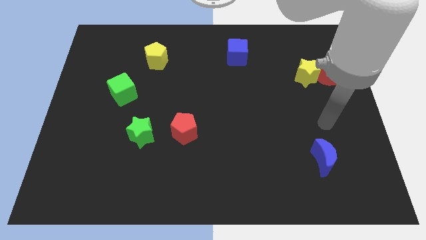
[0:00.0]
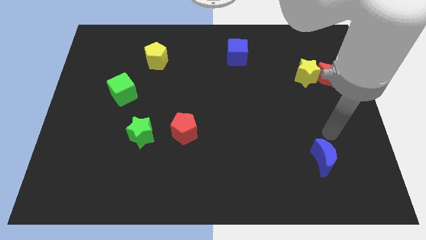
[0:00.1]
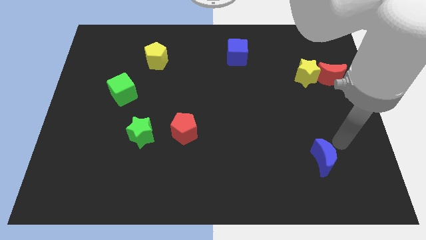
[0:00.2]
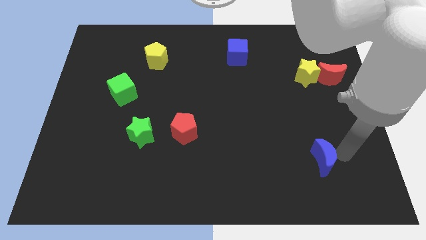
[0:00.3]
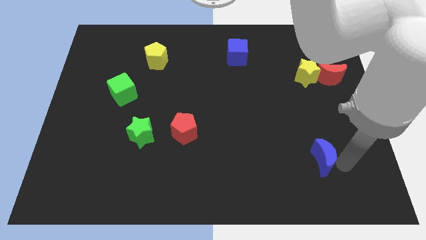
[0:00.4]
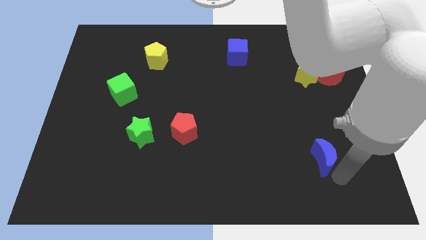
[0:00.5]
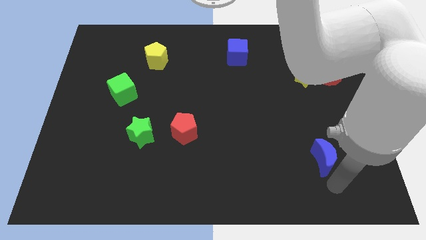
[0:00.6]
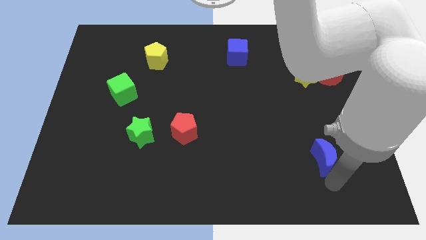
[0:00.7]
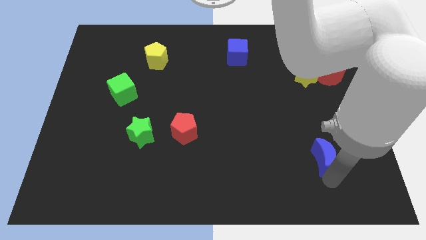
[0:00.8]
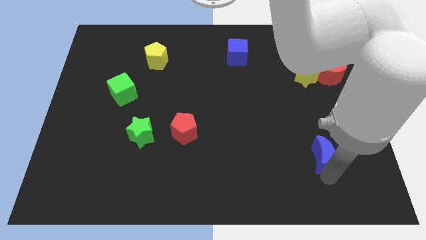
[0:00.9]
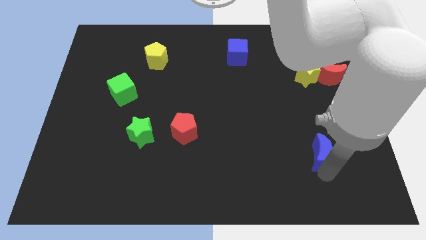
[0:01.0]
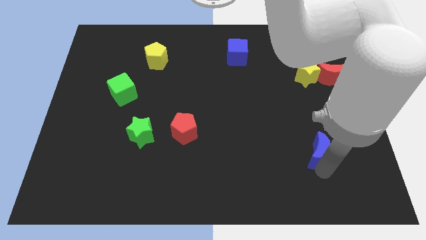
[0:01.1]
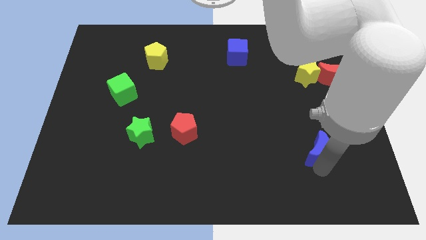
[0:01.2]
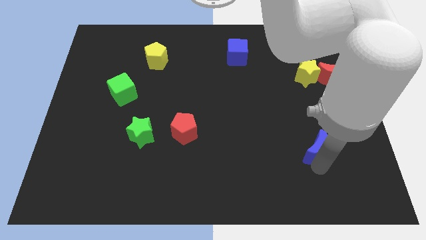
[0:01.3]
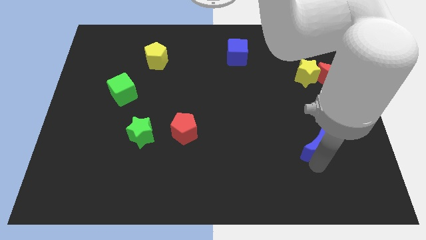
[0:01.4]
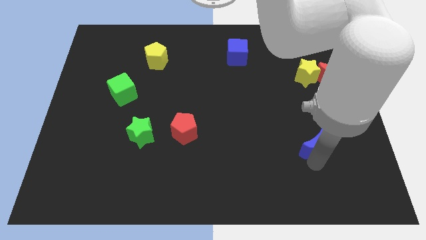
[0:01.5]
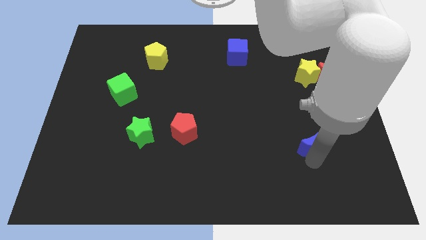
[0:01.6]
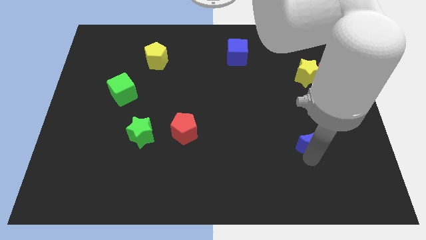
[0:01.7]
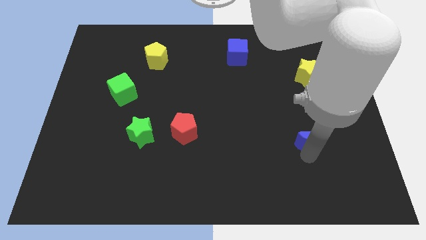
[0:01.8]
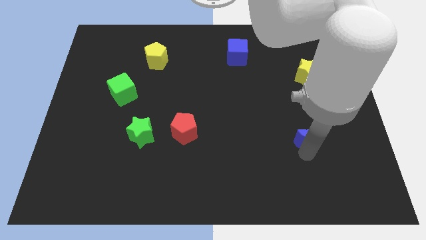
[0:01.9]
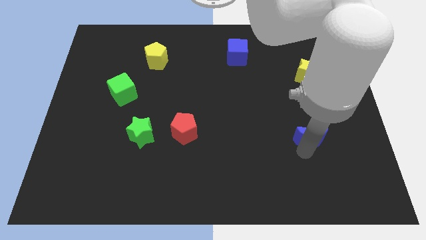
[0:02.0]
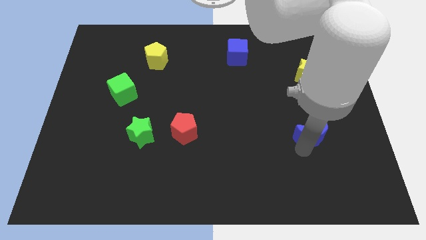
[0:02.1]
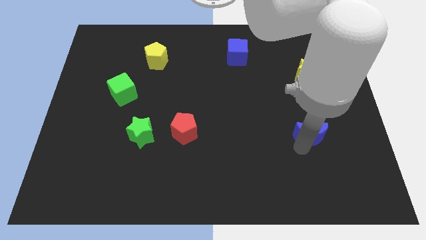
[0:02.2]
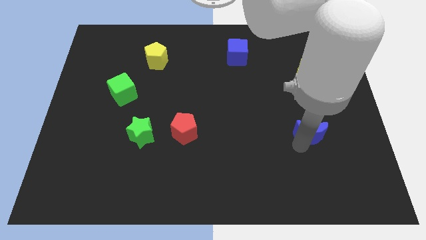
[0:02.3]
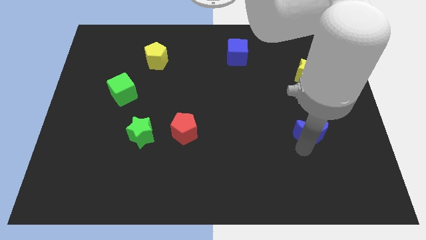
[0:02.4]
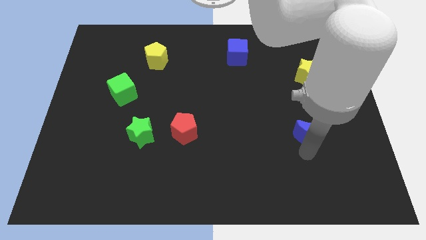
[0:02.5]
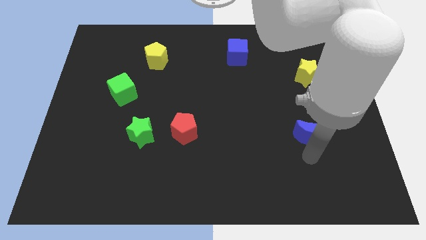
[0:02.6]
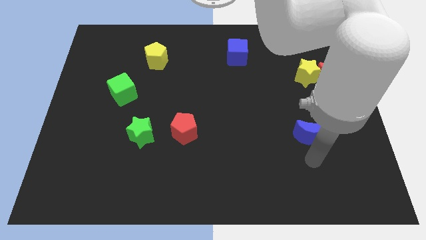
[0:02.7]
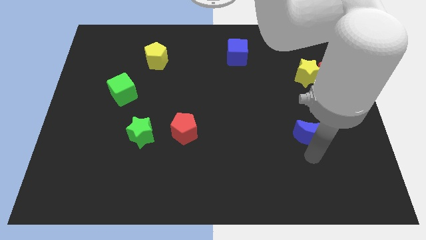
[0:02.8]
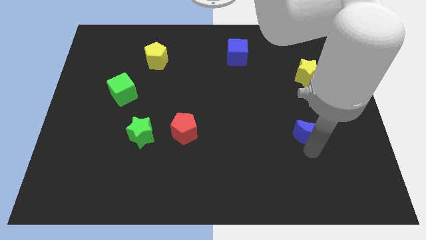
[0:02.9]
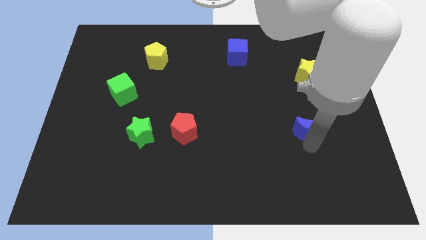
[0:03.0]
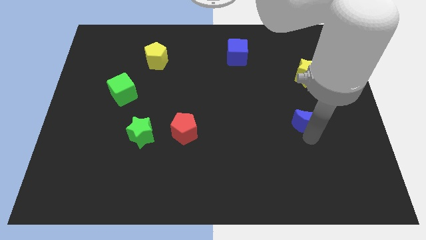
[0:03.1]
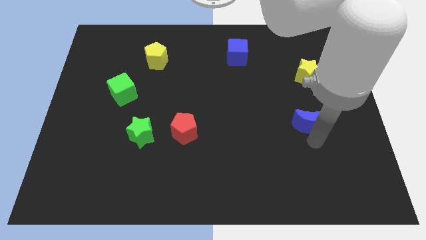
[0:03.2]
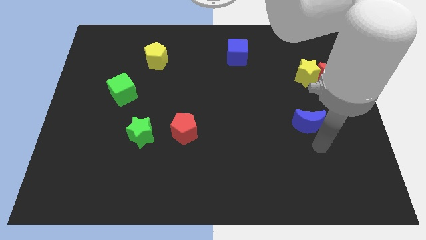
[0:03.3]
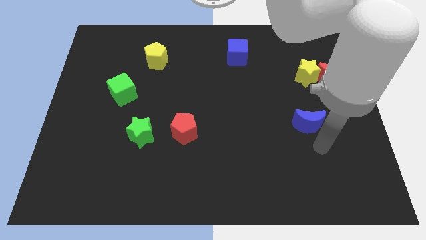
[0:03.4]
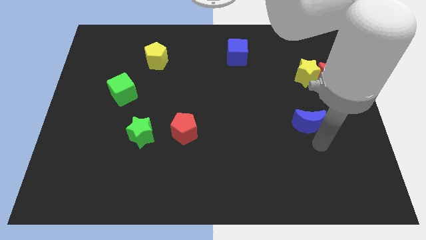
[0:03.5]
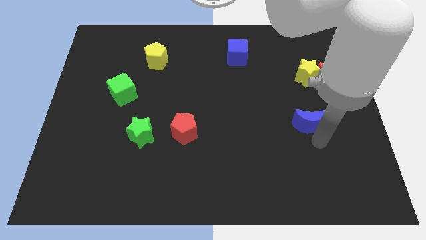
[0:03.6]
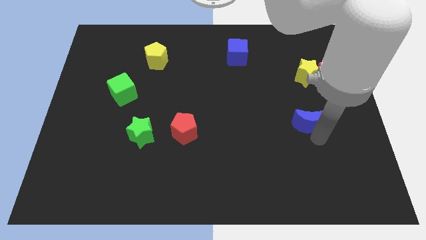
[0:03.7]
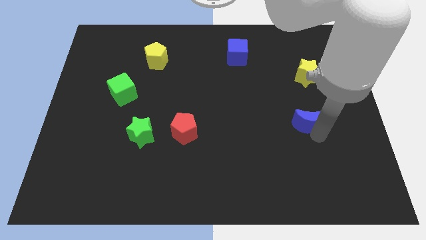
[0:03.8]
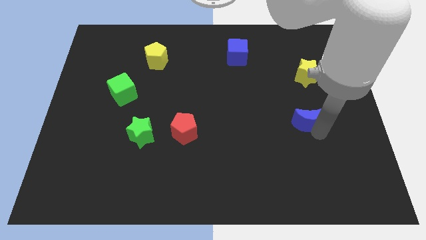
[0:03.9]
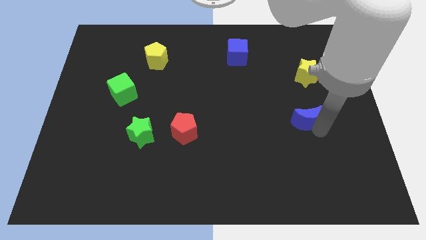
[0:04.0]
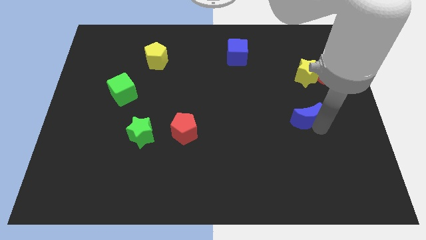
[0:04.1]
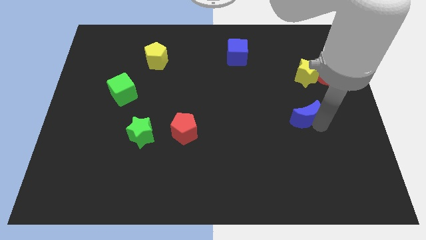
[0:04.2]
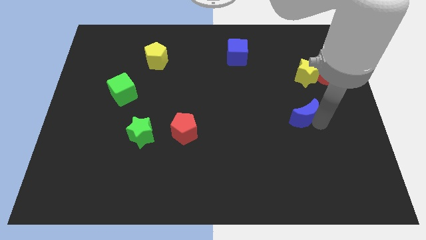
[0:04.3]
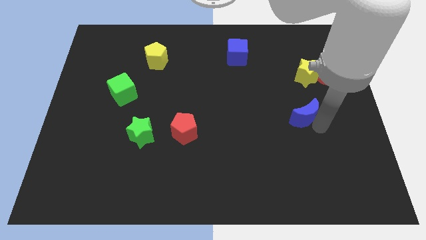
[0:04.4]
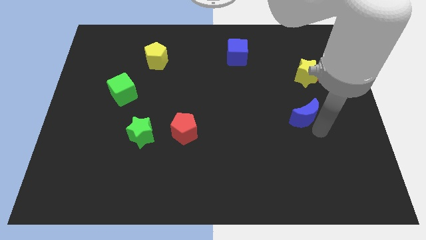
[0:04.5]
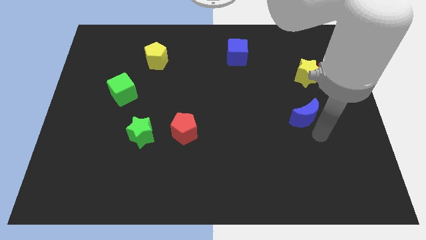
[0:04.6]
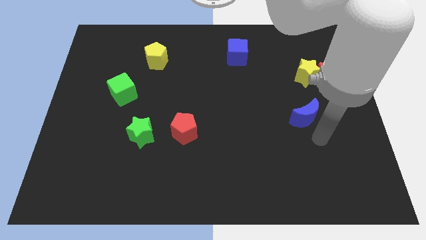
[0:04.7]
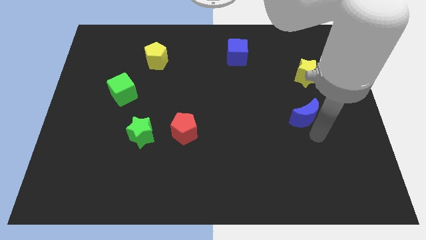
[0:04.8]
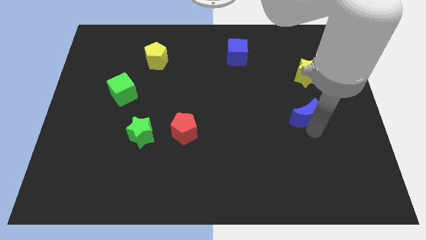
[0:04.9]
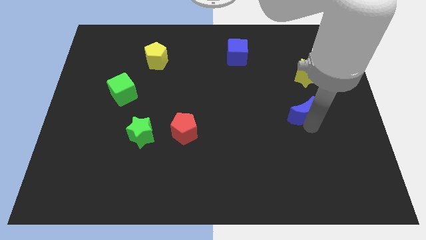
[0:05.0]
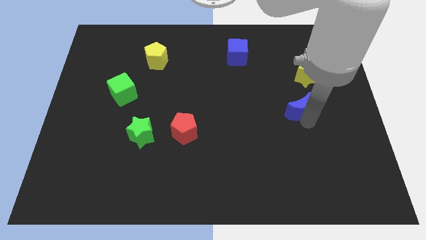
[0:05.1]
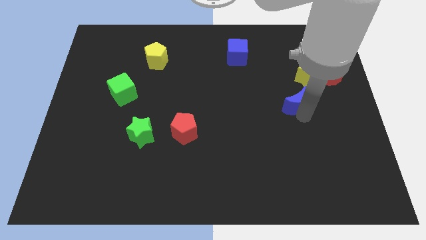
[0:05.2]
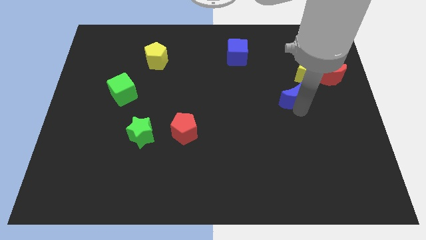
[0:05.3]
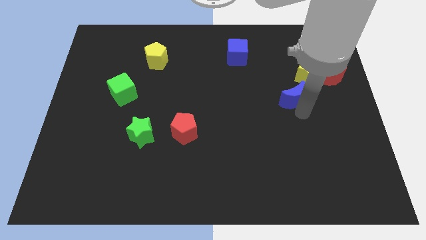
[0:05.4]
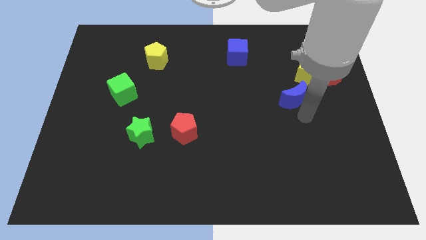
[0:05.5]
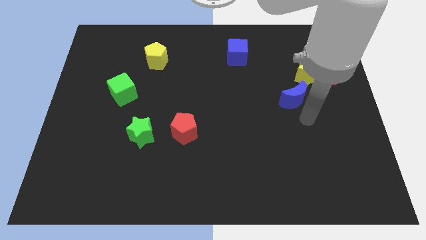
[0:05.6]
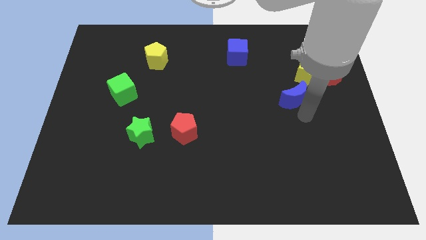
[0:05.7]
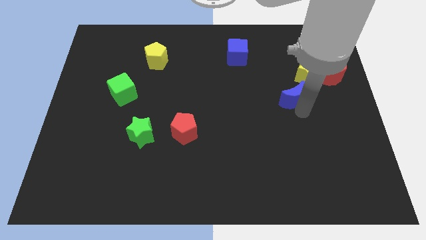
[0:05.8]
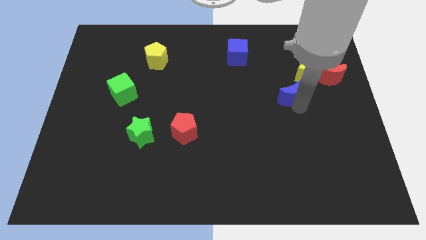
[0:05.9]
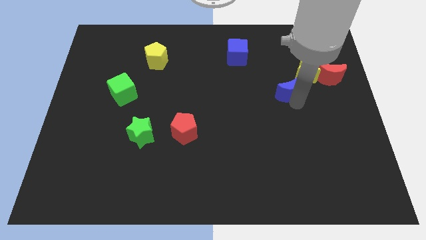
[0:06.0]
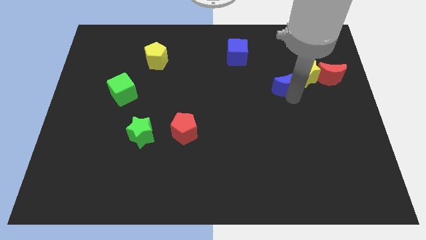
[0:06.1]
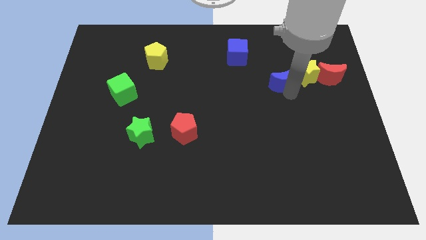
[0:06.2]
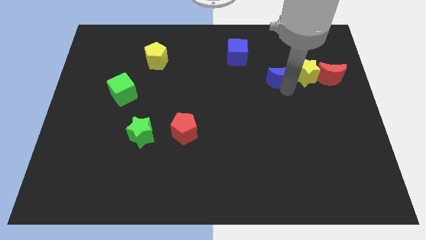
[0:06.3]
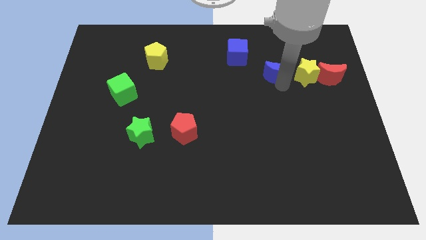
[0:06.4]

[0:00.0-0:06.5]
push the blue moon to the top left of the yellow star

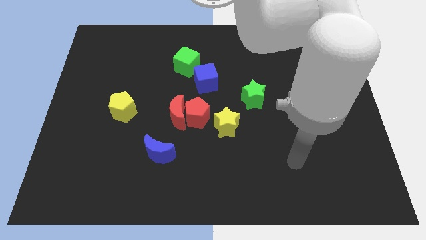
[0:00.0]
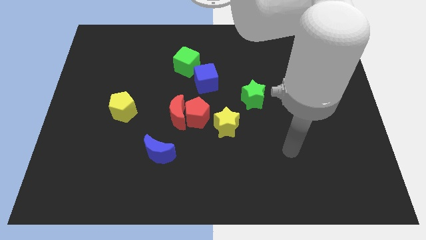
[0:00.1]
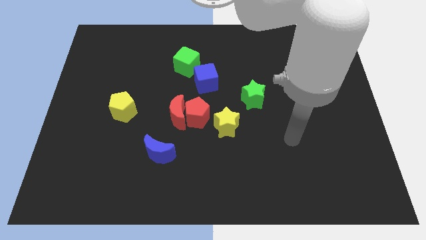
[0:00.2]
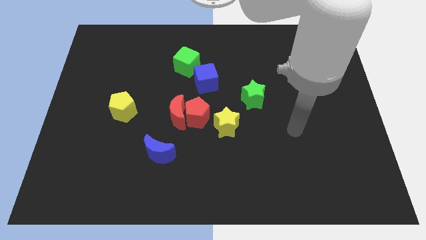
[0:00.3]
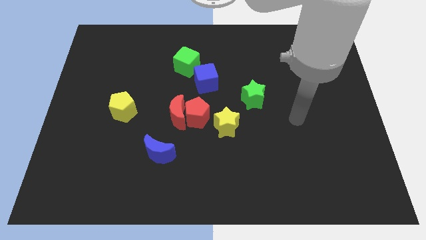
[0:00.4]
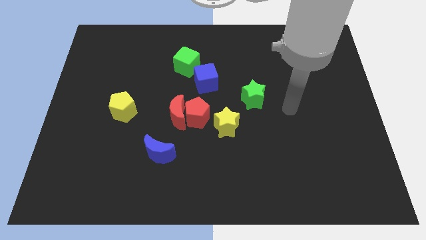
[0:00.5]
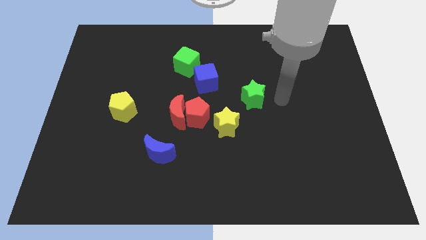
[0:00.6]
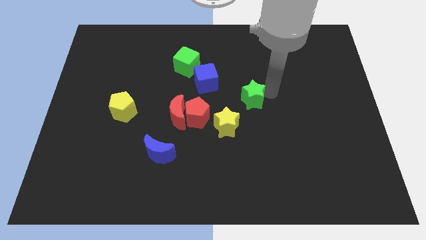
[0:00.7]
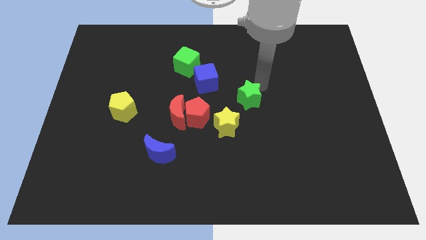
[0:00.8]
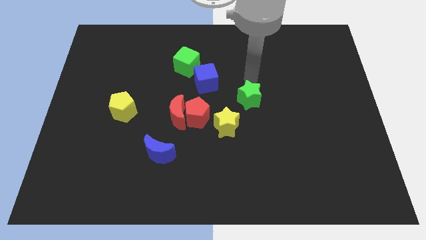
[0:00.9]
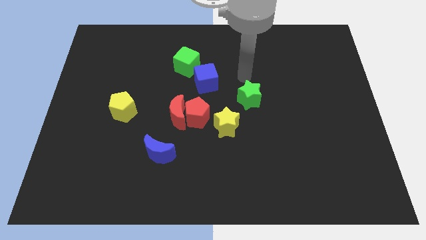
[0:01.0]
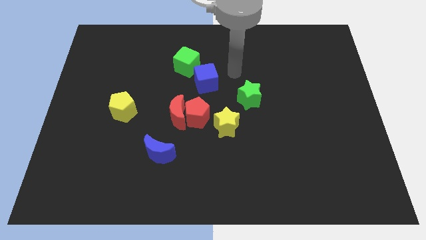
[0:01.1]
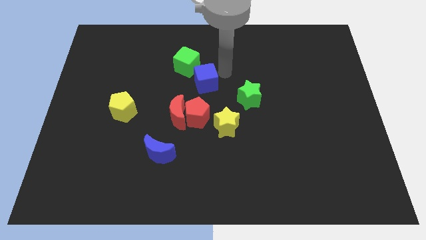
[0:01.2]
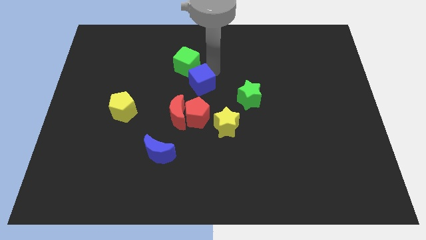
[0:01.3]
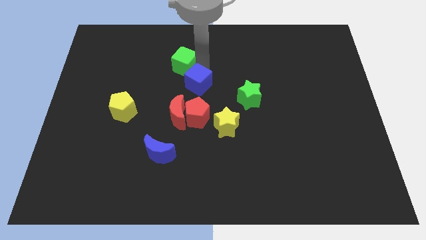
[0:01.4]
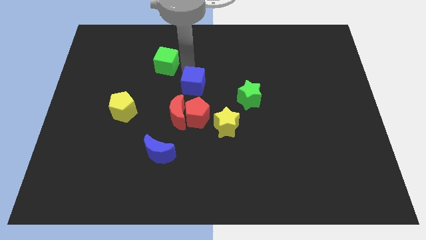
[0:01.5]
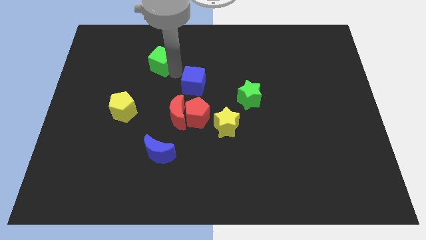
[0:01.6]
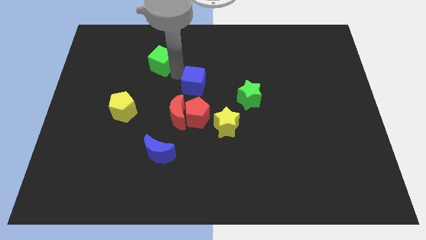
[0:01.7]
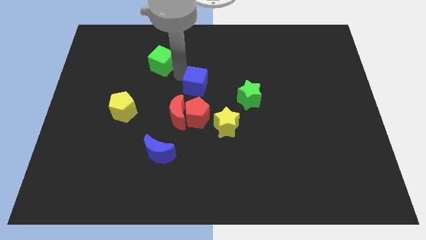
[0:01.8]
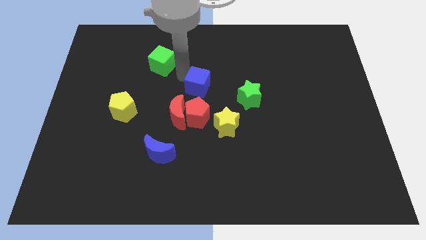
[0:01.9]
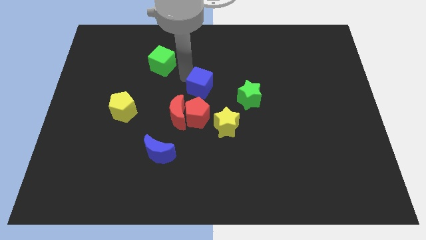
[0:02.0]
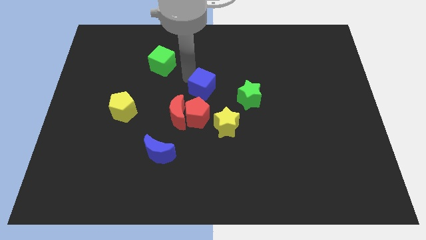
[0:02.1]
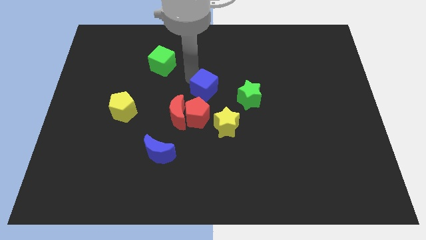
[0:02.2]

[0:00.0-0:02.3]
slide the blue cube diagonally up and to the right of the red pentagon
